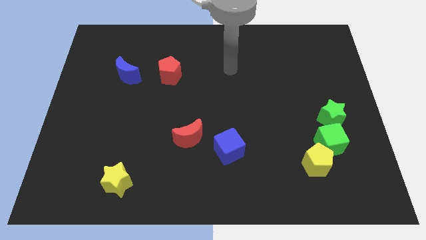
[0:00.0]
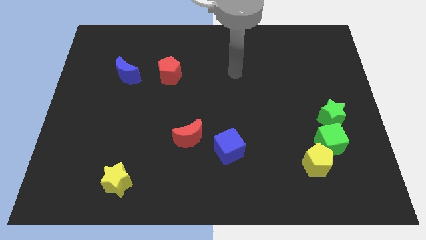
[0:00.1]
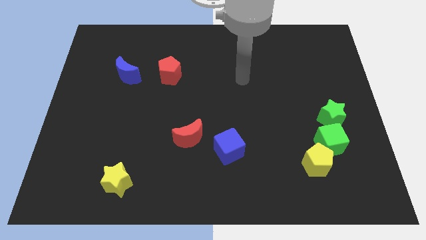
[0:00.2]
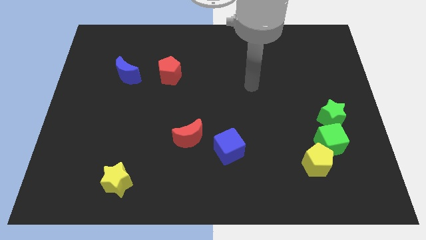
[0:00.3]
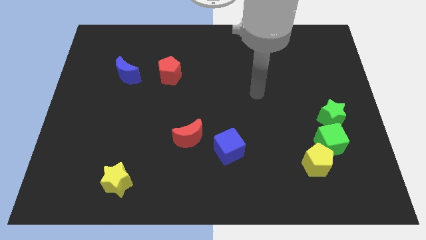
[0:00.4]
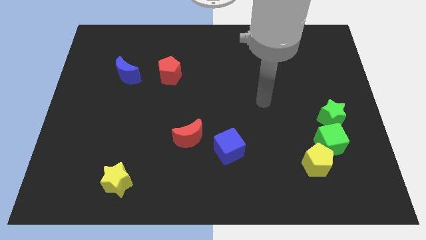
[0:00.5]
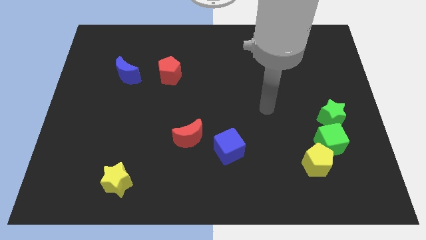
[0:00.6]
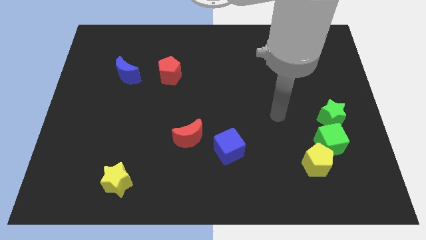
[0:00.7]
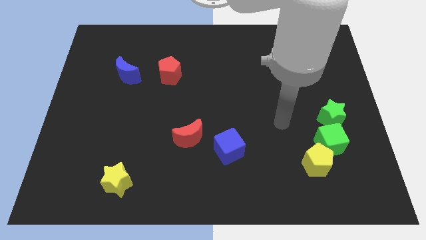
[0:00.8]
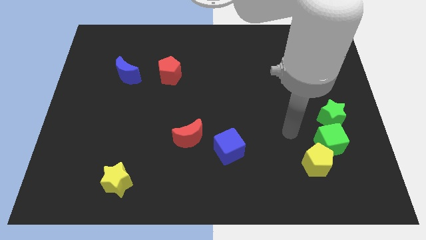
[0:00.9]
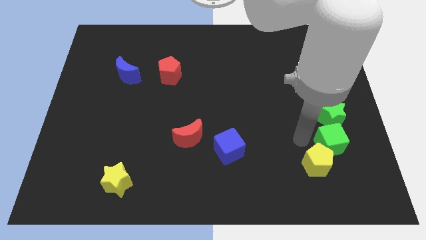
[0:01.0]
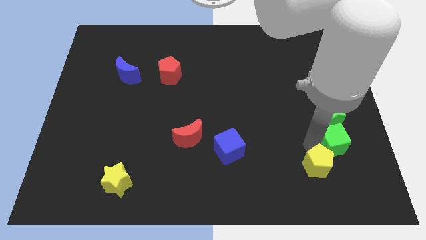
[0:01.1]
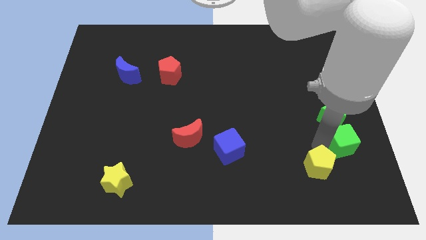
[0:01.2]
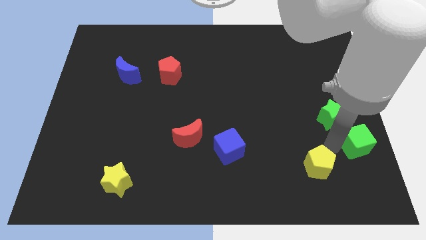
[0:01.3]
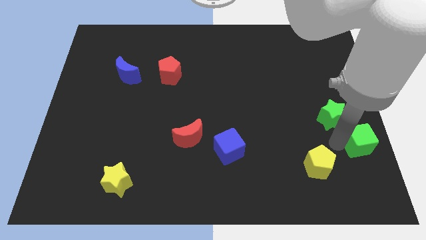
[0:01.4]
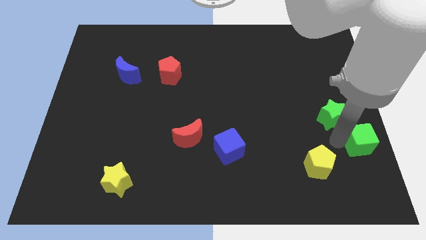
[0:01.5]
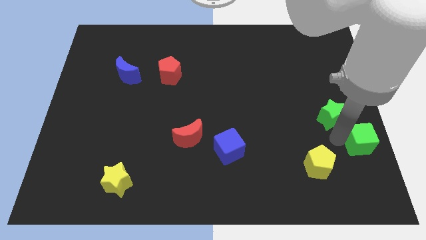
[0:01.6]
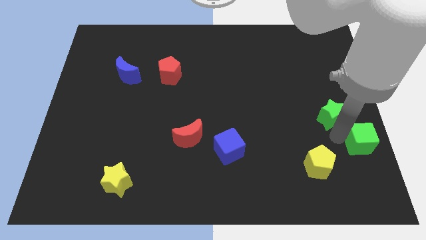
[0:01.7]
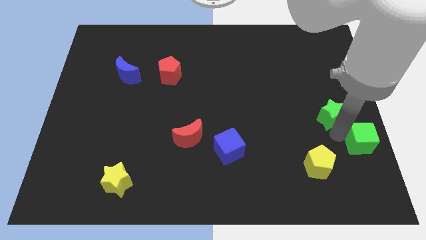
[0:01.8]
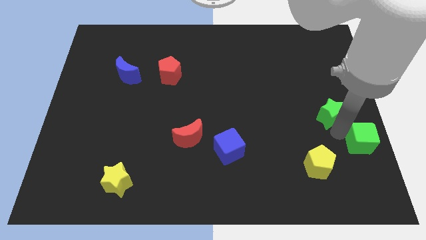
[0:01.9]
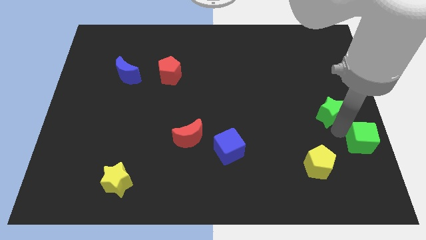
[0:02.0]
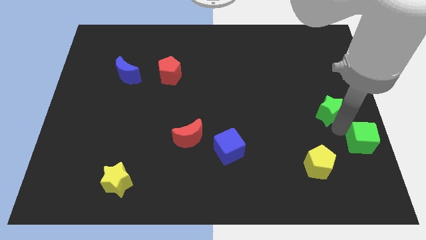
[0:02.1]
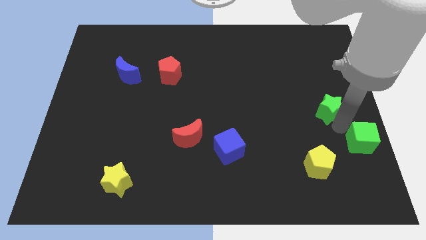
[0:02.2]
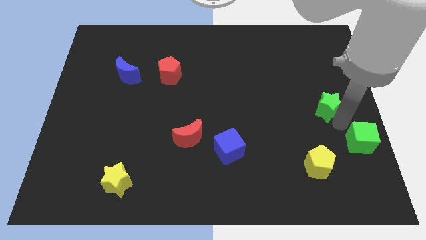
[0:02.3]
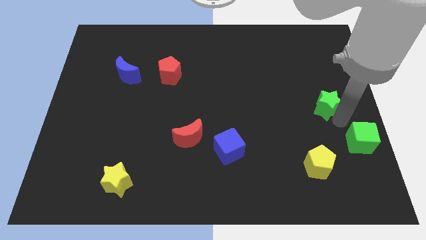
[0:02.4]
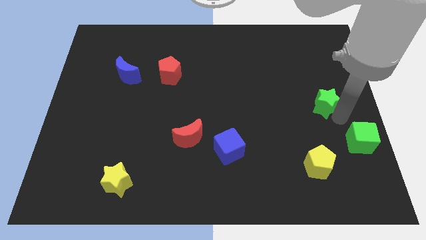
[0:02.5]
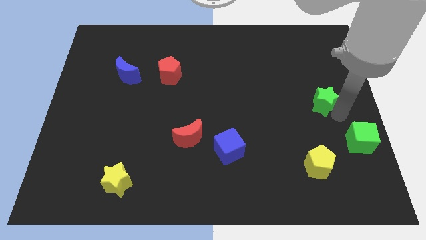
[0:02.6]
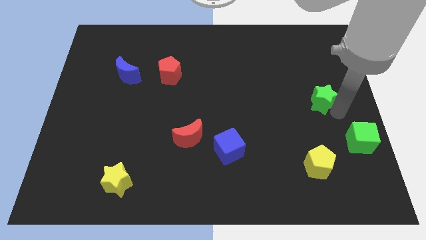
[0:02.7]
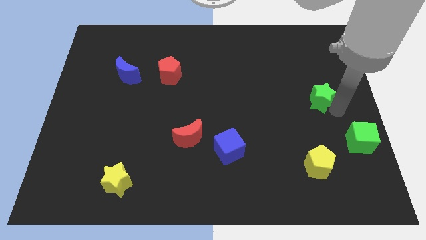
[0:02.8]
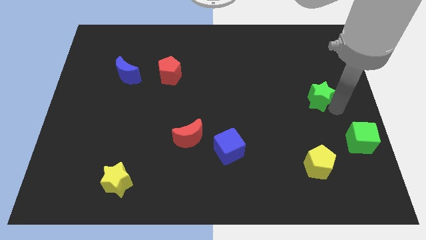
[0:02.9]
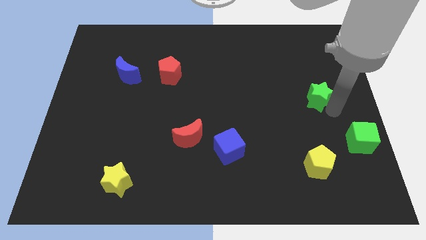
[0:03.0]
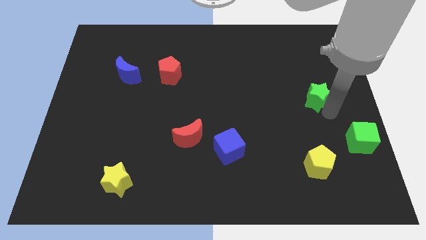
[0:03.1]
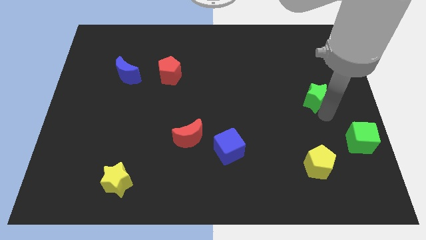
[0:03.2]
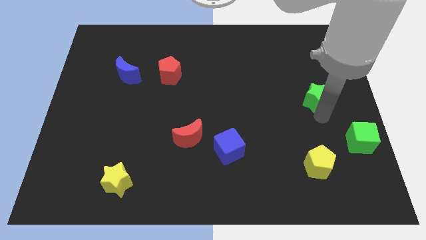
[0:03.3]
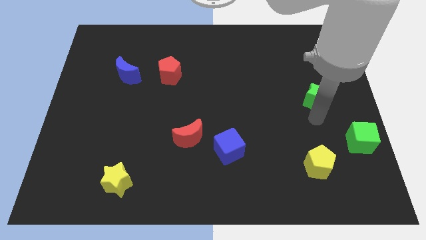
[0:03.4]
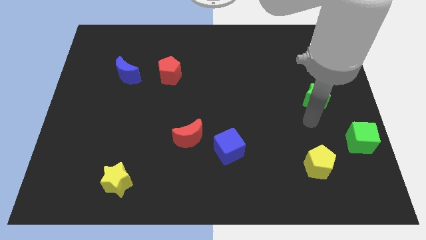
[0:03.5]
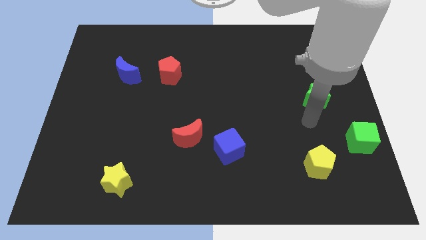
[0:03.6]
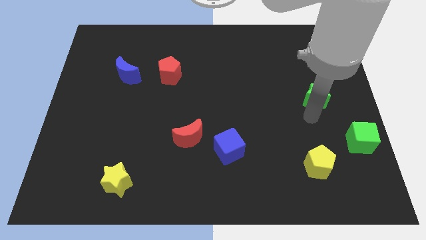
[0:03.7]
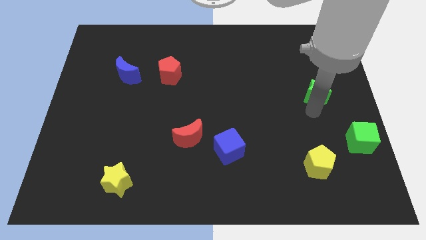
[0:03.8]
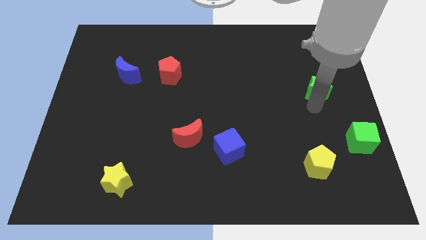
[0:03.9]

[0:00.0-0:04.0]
move the green star up a little

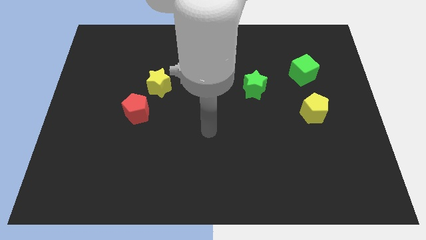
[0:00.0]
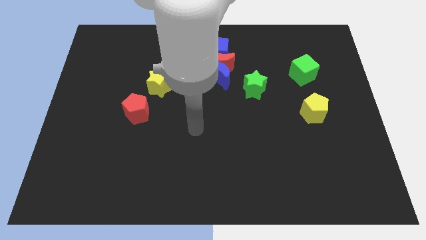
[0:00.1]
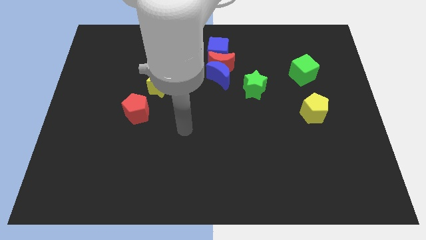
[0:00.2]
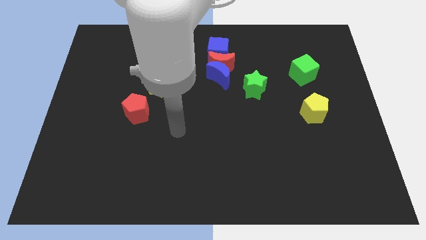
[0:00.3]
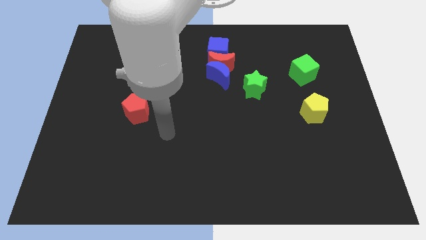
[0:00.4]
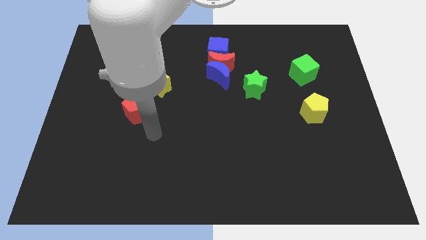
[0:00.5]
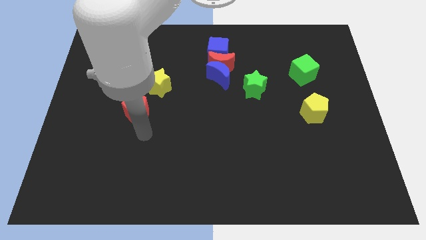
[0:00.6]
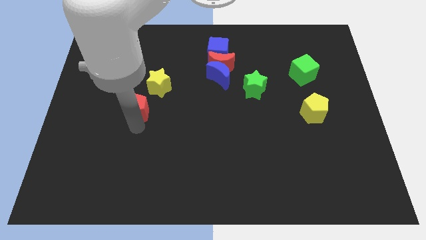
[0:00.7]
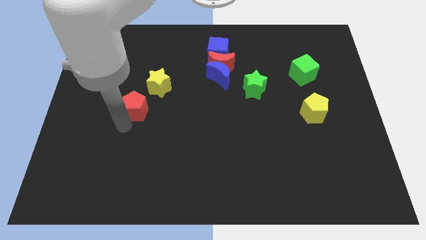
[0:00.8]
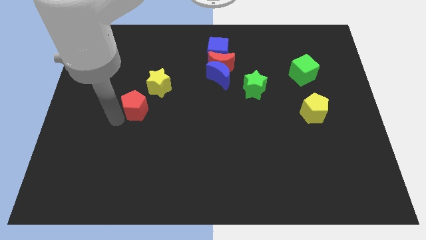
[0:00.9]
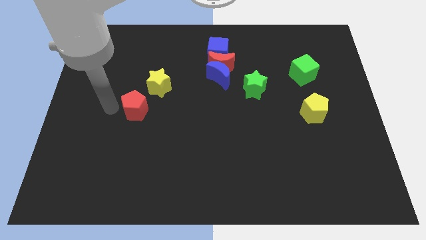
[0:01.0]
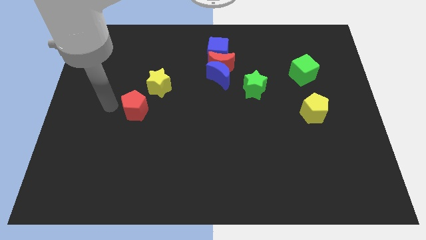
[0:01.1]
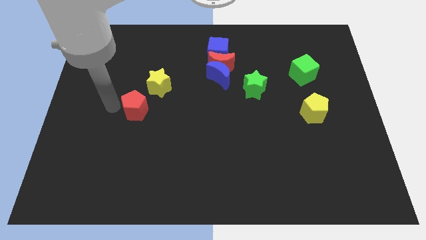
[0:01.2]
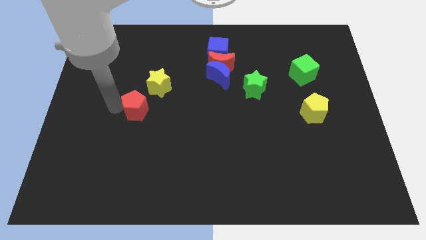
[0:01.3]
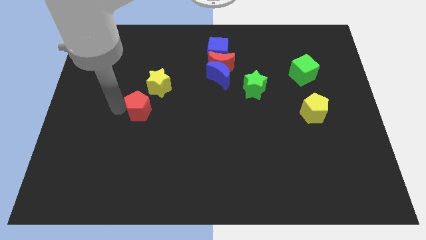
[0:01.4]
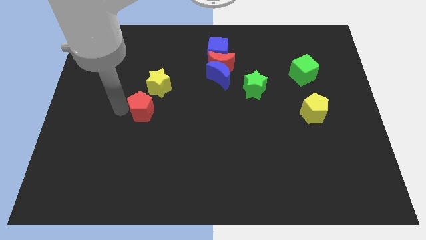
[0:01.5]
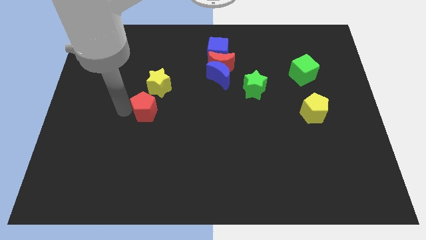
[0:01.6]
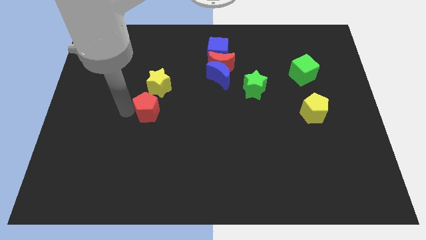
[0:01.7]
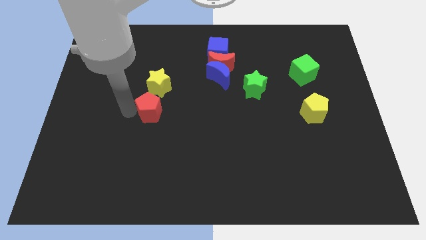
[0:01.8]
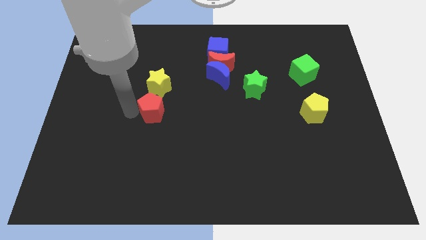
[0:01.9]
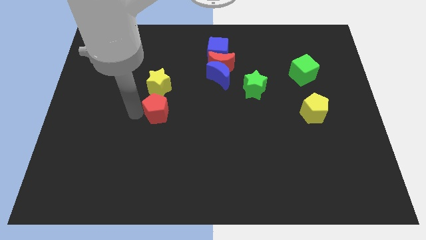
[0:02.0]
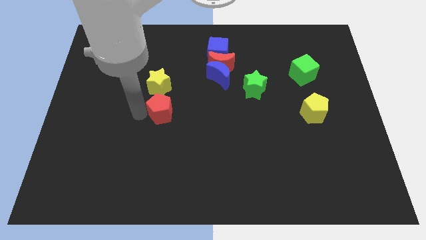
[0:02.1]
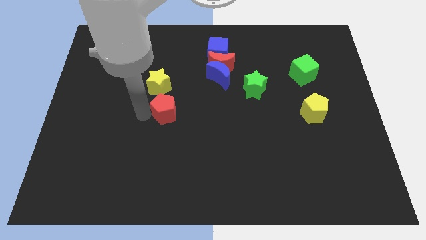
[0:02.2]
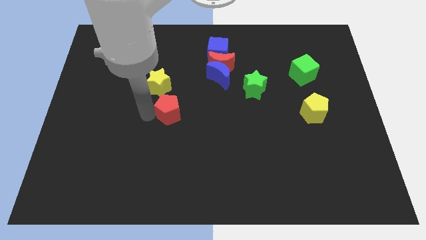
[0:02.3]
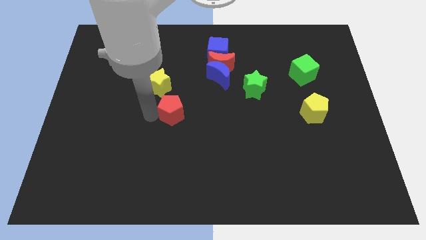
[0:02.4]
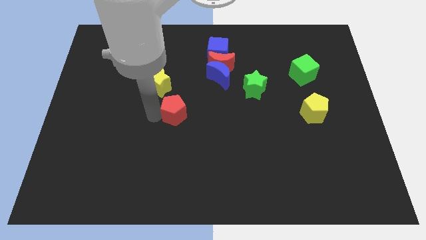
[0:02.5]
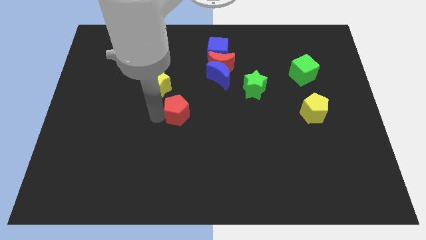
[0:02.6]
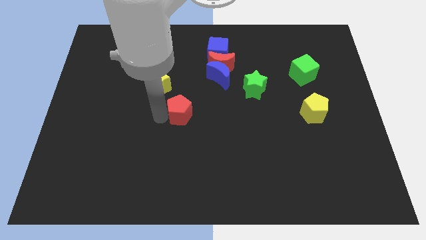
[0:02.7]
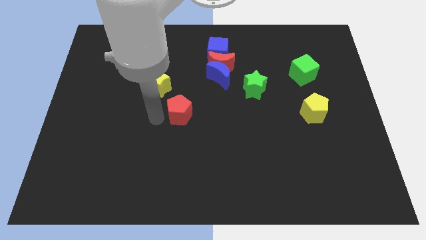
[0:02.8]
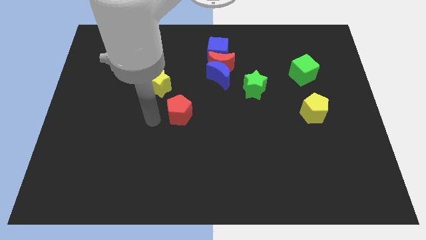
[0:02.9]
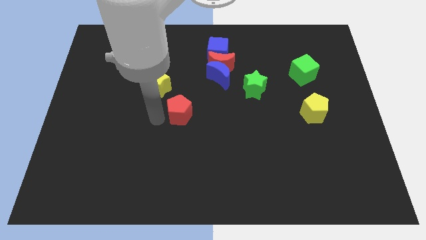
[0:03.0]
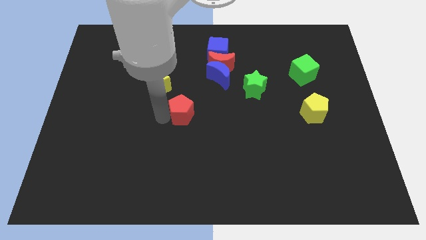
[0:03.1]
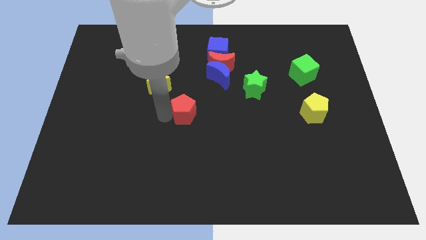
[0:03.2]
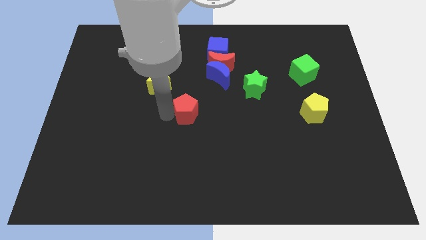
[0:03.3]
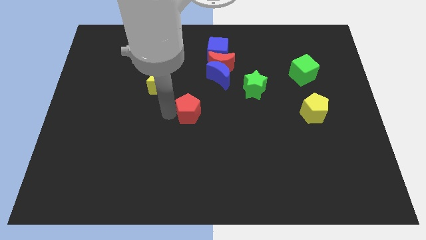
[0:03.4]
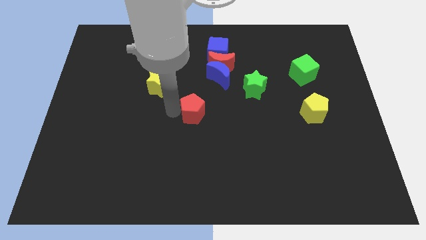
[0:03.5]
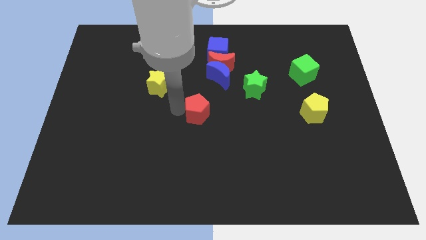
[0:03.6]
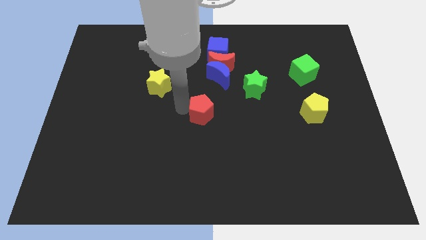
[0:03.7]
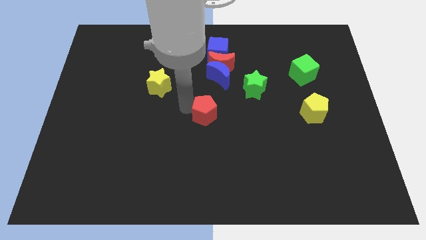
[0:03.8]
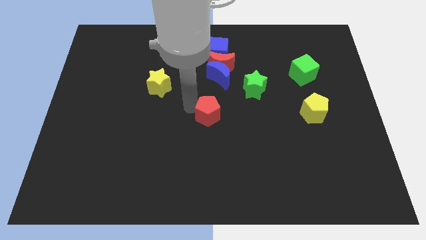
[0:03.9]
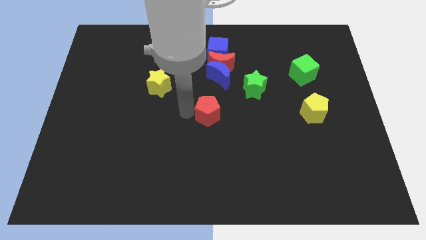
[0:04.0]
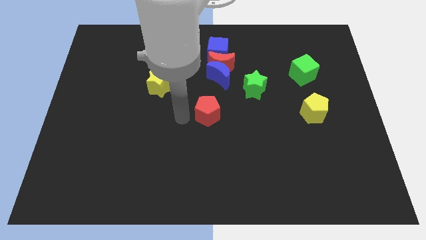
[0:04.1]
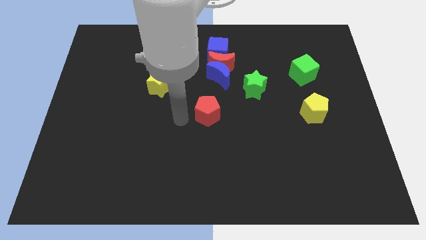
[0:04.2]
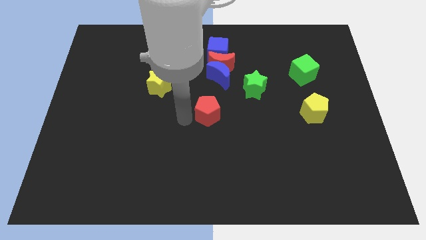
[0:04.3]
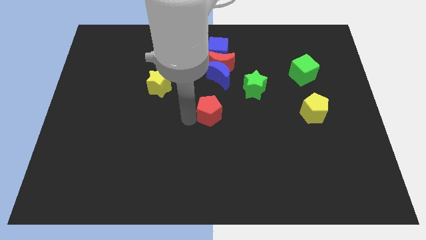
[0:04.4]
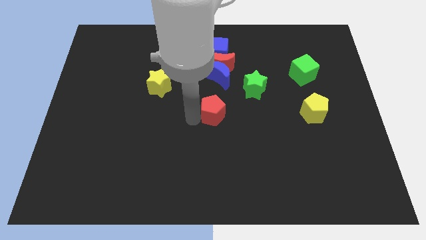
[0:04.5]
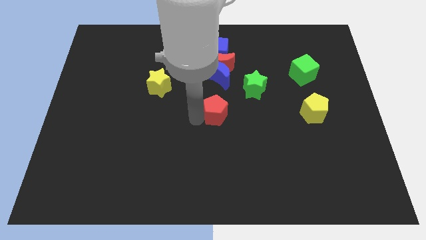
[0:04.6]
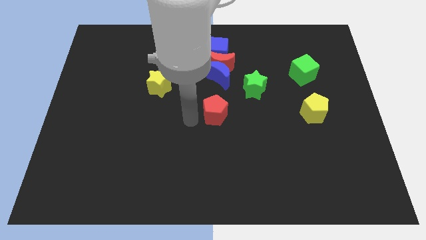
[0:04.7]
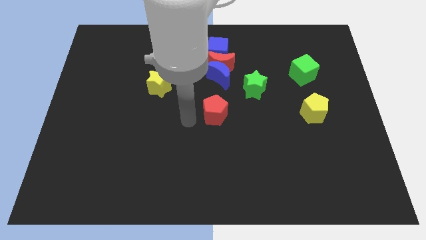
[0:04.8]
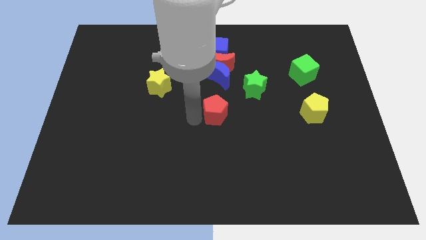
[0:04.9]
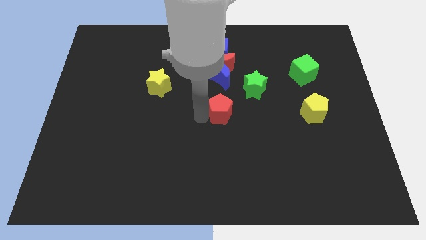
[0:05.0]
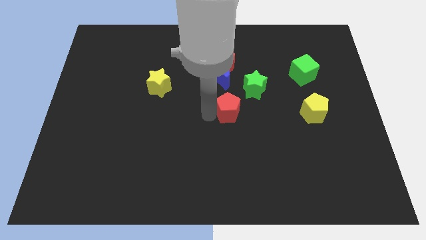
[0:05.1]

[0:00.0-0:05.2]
push the red pentagon right
